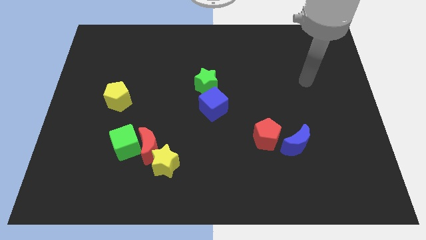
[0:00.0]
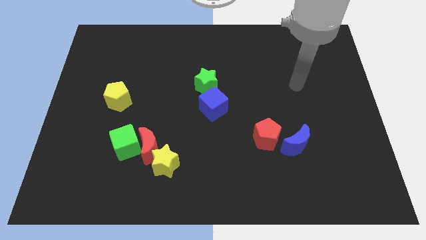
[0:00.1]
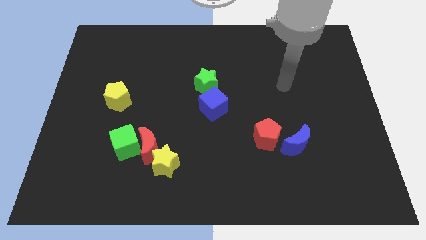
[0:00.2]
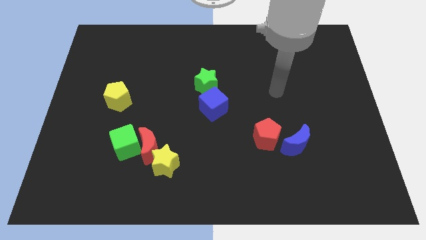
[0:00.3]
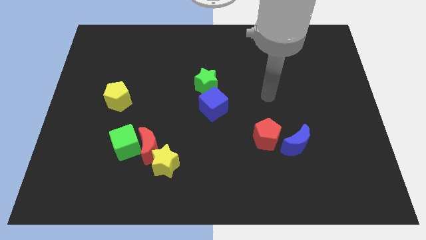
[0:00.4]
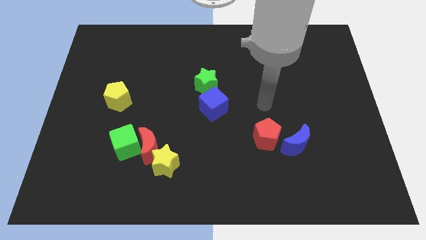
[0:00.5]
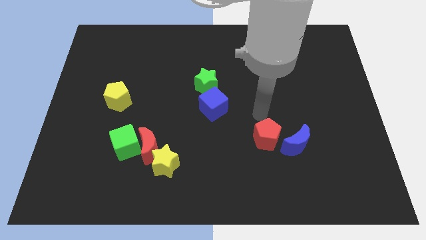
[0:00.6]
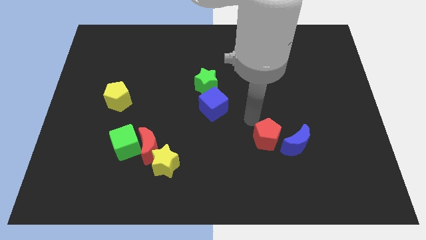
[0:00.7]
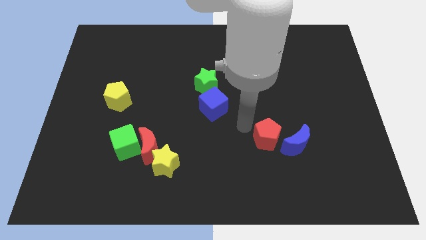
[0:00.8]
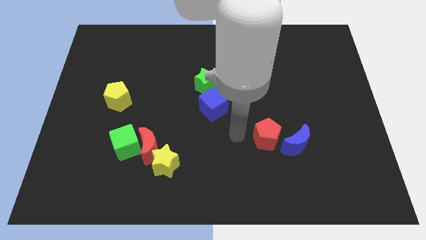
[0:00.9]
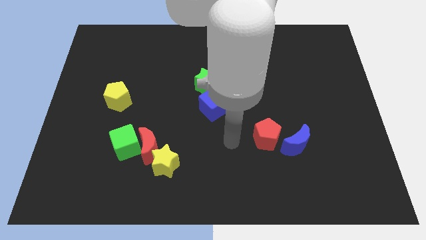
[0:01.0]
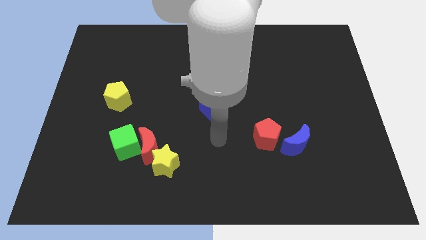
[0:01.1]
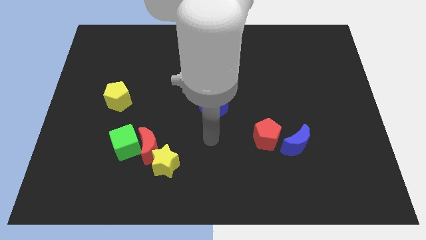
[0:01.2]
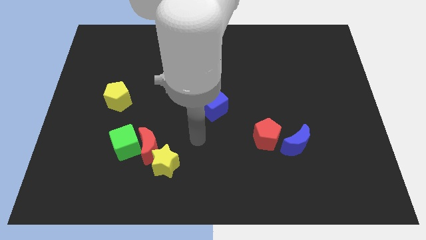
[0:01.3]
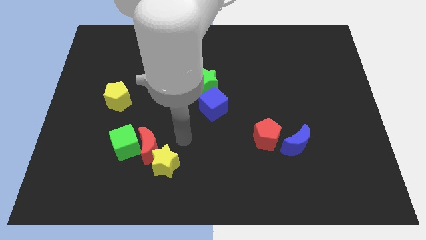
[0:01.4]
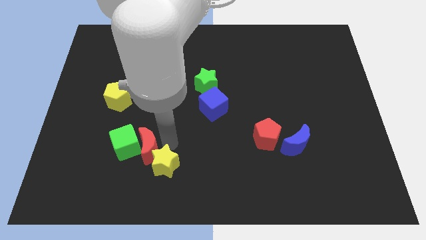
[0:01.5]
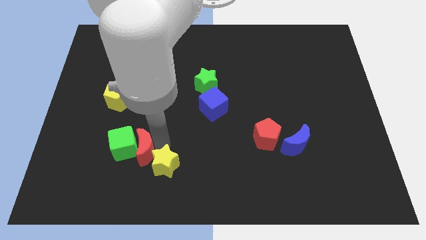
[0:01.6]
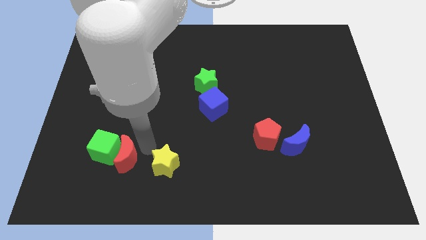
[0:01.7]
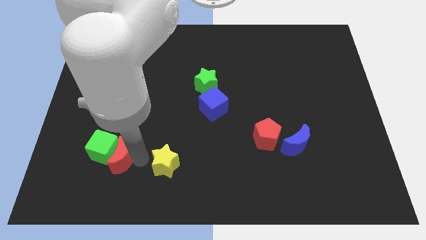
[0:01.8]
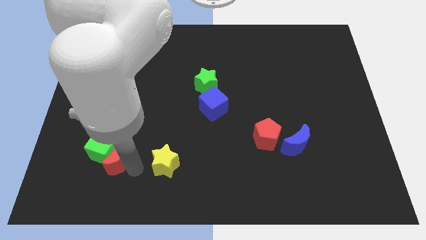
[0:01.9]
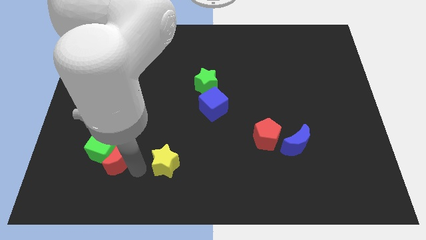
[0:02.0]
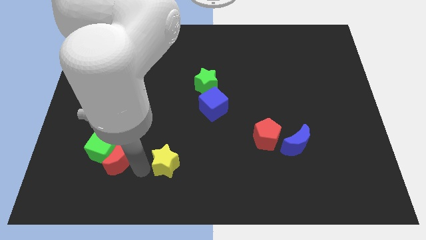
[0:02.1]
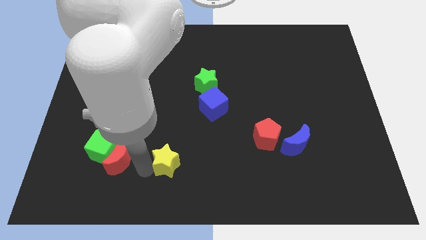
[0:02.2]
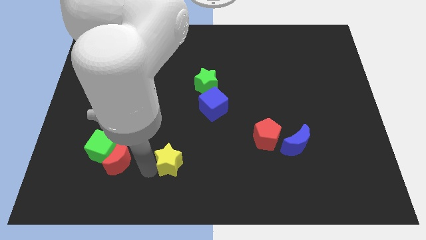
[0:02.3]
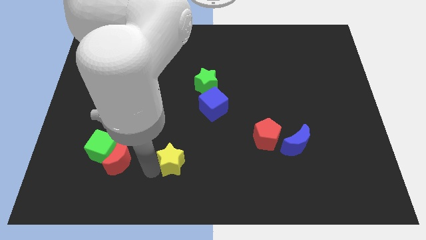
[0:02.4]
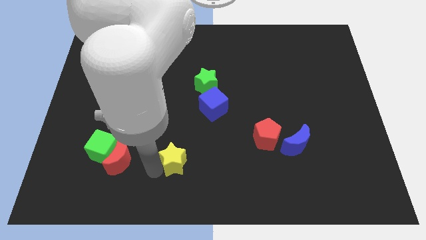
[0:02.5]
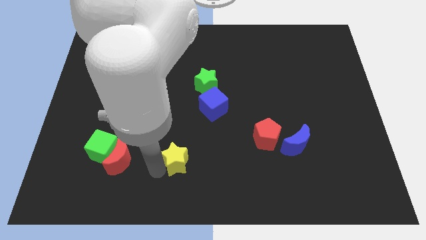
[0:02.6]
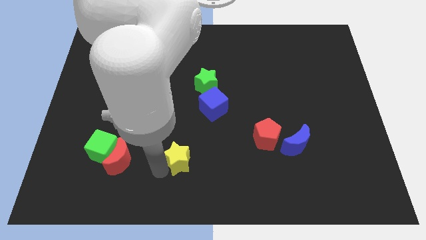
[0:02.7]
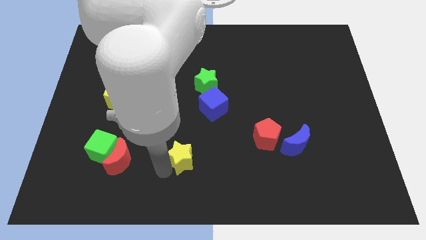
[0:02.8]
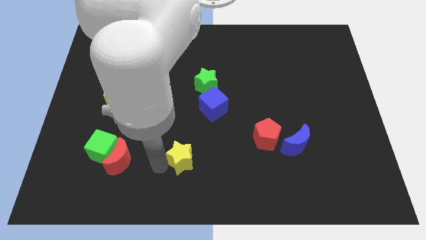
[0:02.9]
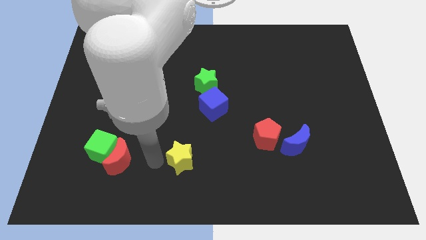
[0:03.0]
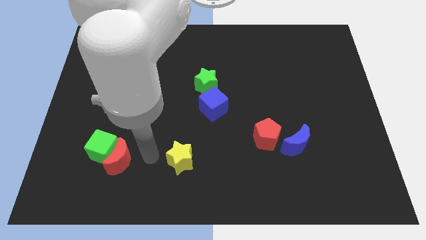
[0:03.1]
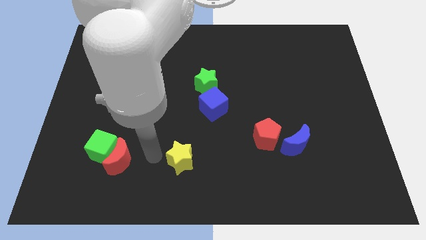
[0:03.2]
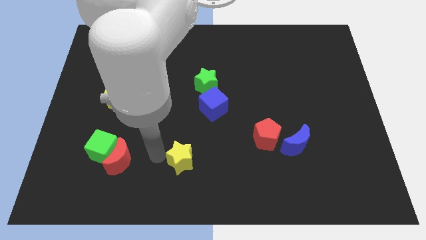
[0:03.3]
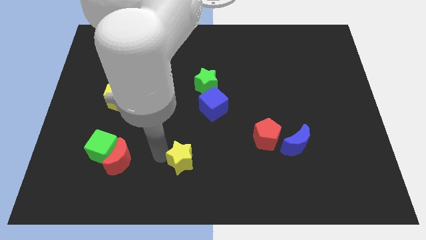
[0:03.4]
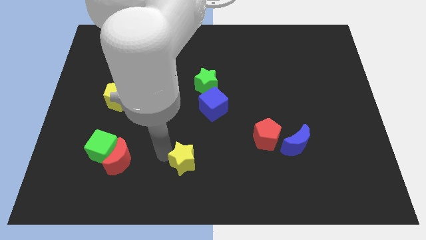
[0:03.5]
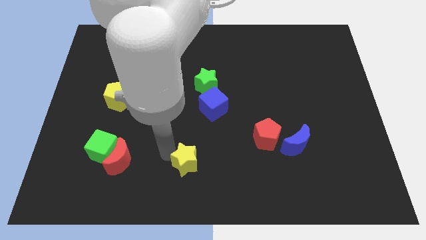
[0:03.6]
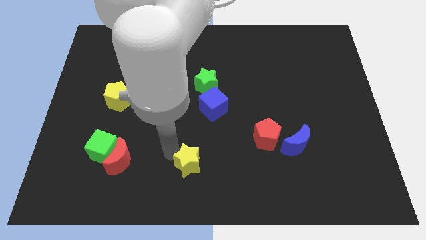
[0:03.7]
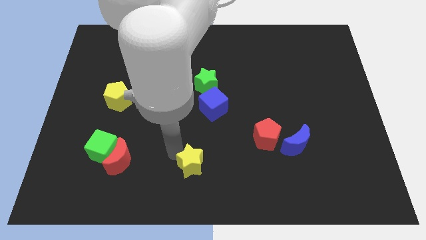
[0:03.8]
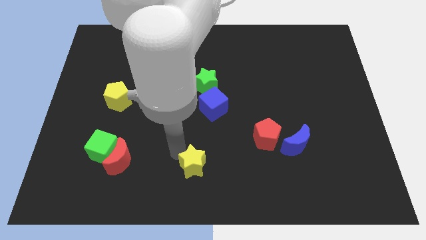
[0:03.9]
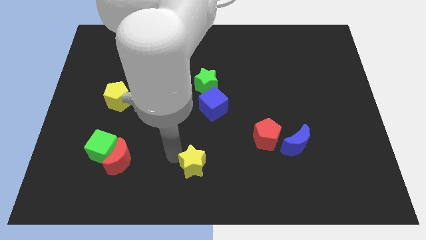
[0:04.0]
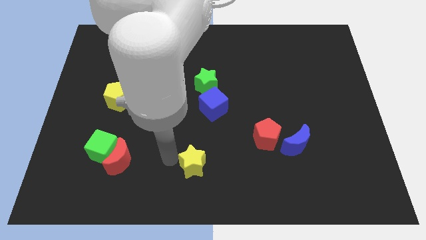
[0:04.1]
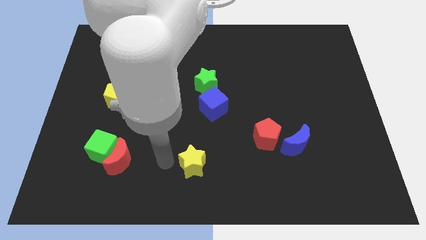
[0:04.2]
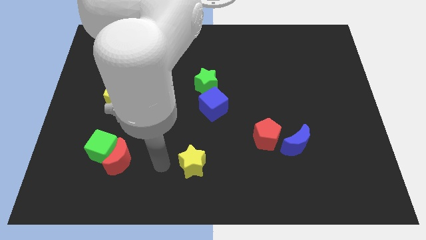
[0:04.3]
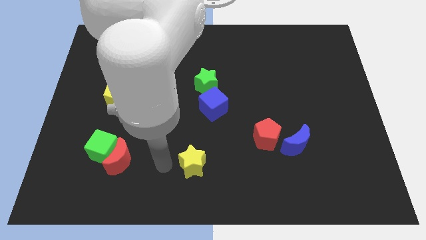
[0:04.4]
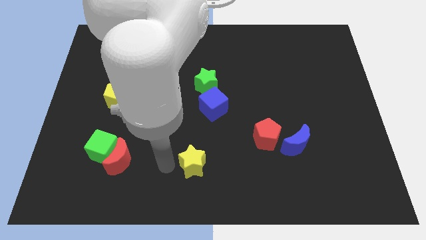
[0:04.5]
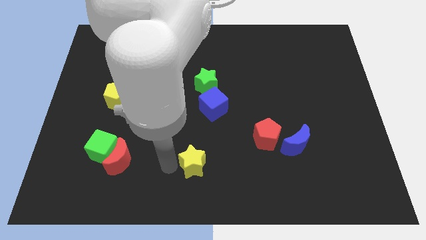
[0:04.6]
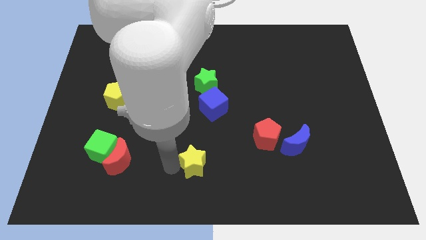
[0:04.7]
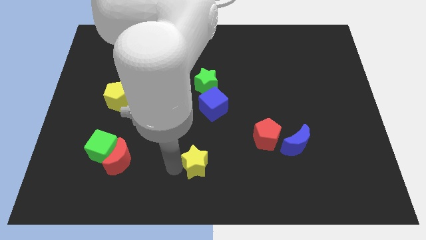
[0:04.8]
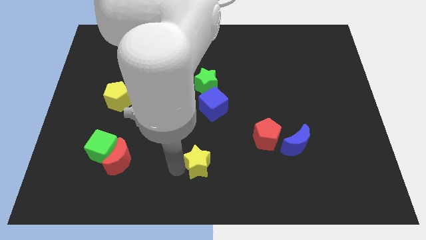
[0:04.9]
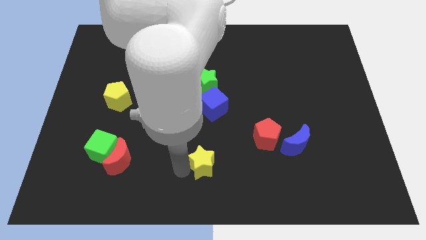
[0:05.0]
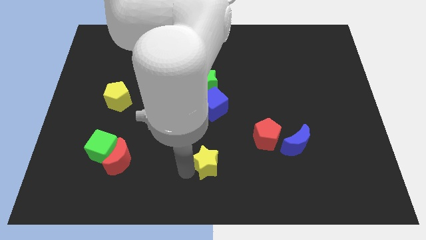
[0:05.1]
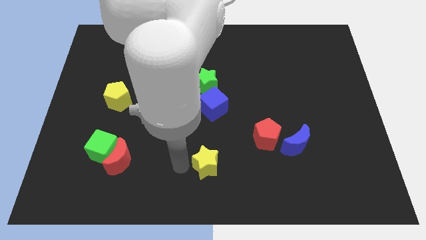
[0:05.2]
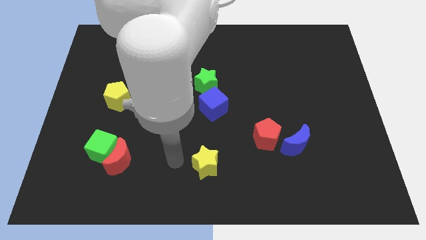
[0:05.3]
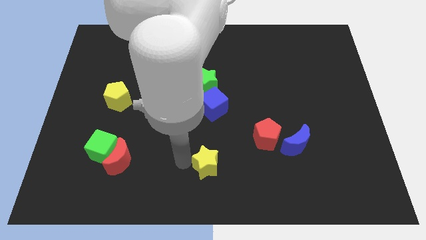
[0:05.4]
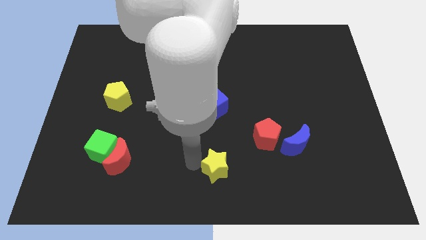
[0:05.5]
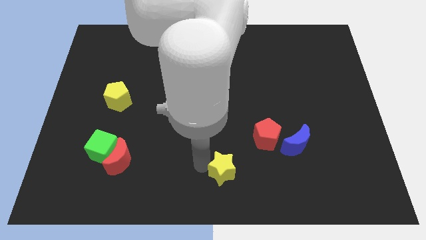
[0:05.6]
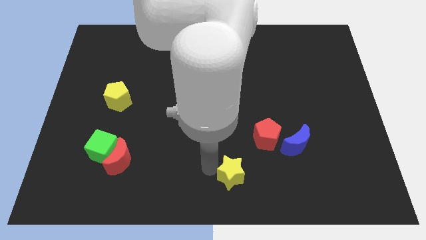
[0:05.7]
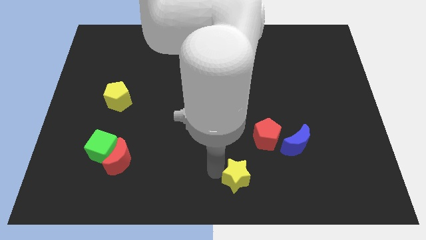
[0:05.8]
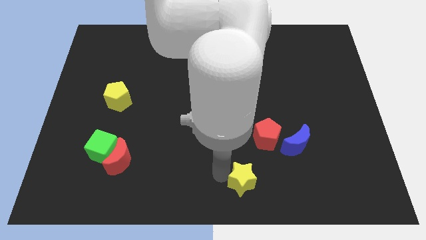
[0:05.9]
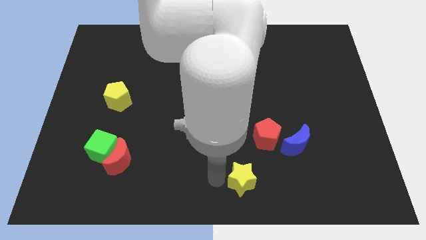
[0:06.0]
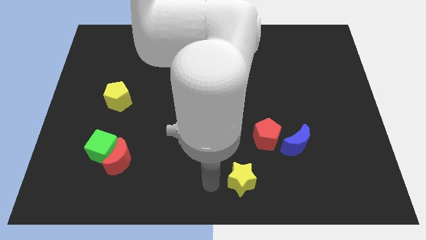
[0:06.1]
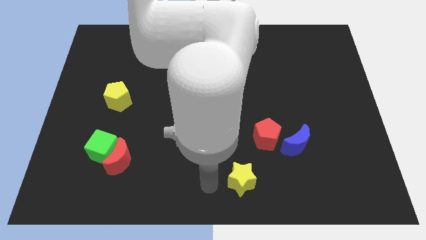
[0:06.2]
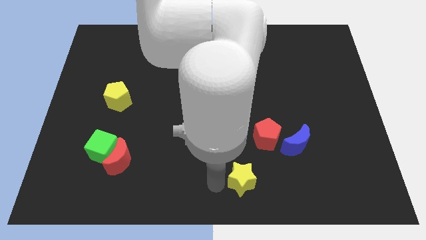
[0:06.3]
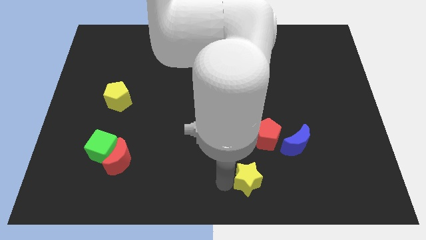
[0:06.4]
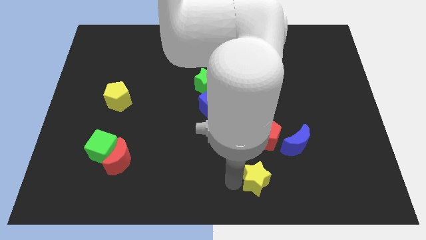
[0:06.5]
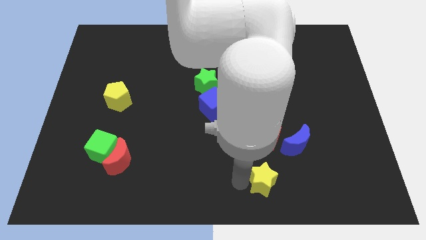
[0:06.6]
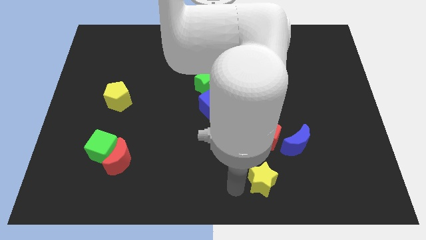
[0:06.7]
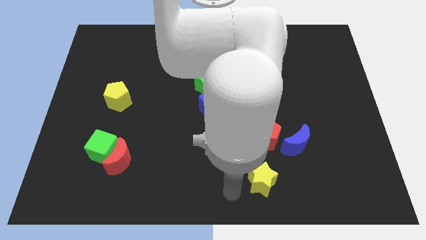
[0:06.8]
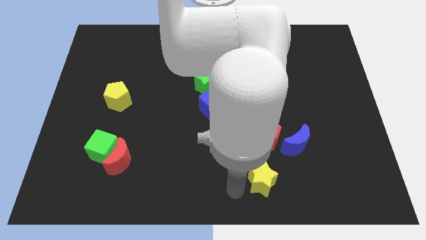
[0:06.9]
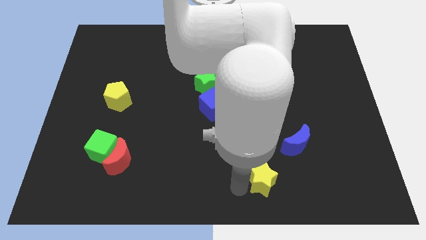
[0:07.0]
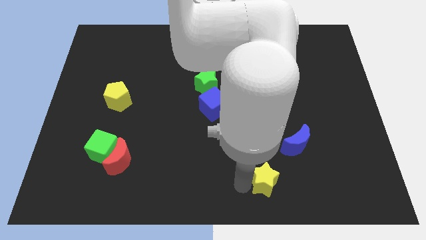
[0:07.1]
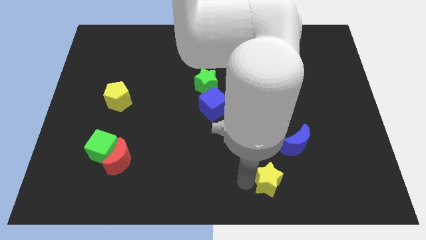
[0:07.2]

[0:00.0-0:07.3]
move the yellow star right

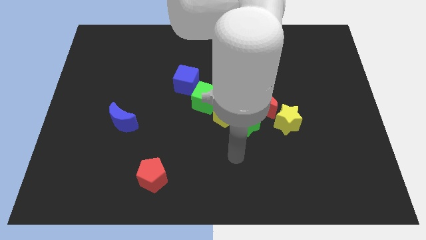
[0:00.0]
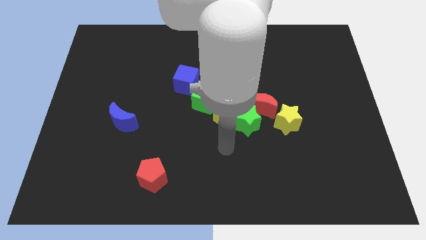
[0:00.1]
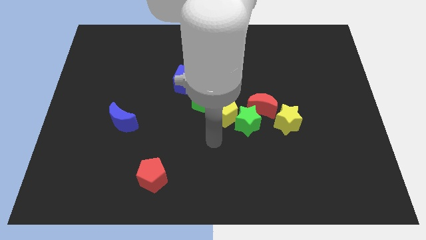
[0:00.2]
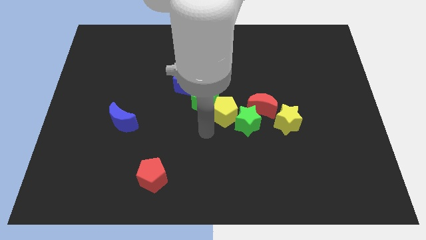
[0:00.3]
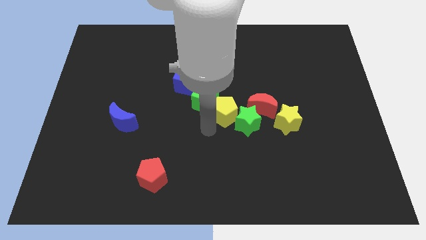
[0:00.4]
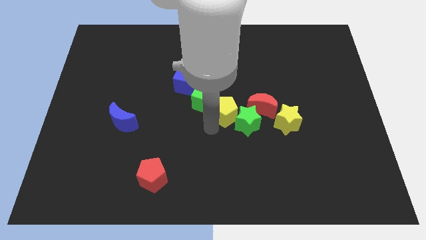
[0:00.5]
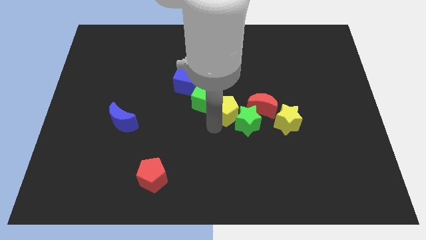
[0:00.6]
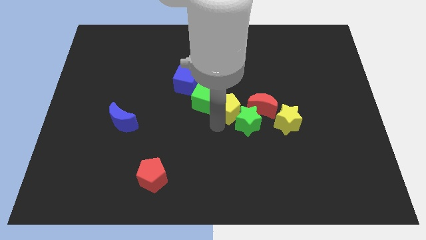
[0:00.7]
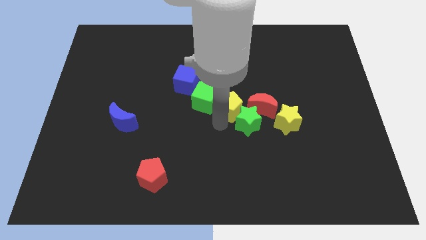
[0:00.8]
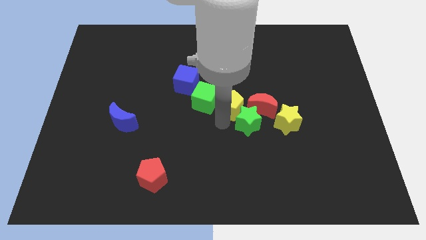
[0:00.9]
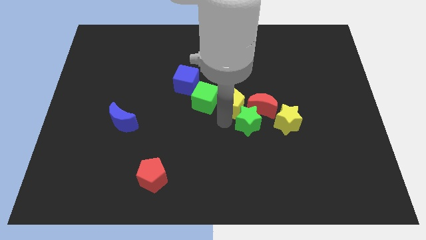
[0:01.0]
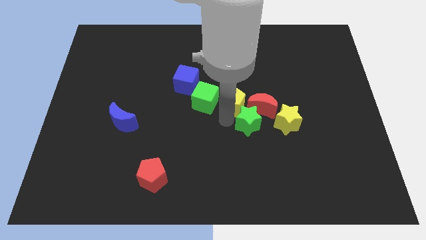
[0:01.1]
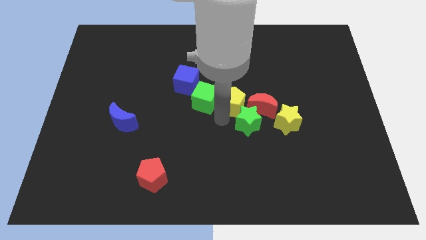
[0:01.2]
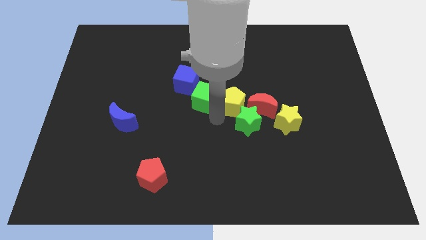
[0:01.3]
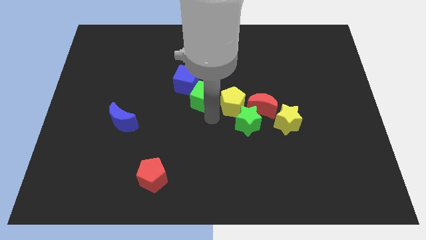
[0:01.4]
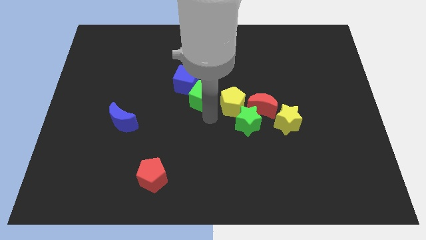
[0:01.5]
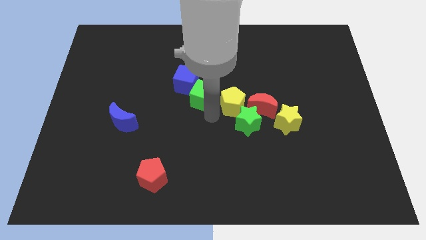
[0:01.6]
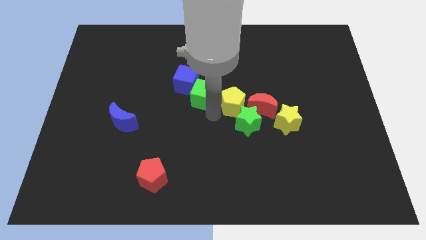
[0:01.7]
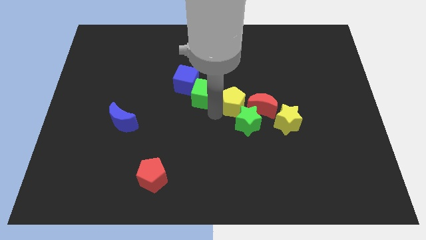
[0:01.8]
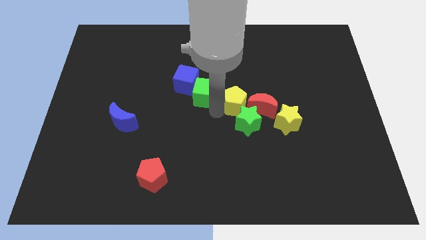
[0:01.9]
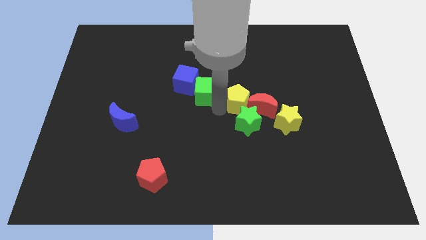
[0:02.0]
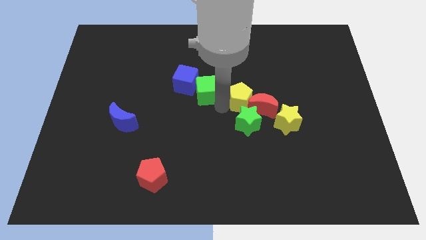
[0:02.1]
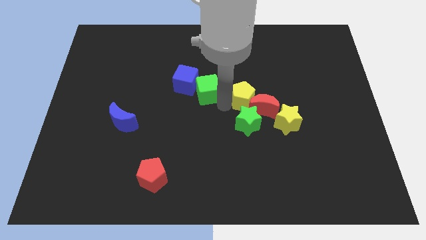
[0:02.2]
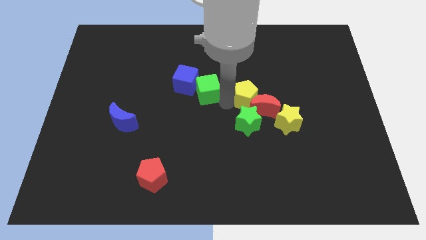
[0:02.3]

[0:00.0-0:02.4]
slide the yellow pentagon diagonally up and to the right a bit
